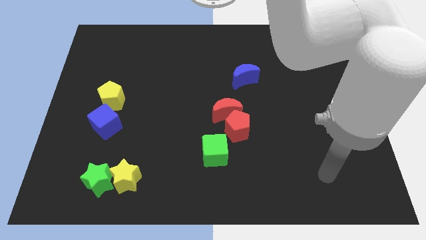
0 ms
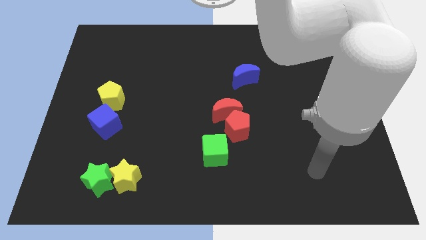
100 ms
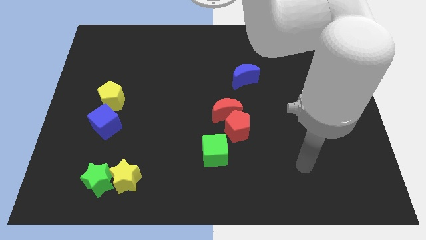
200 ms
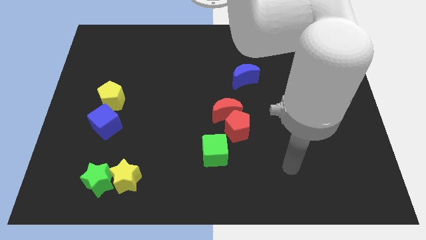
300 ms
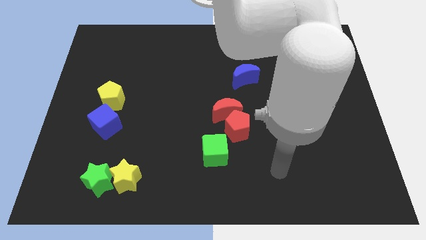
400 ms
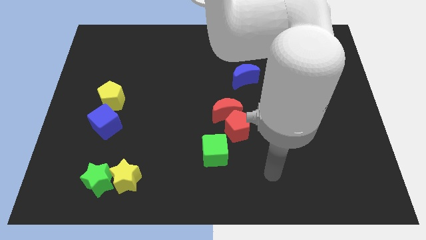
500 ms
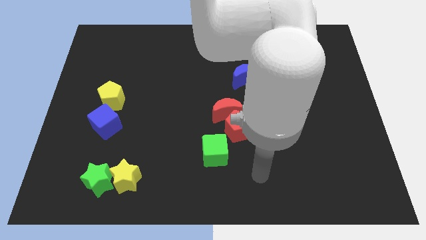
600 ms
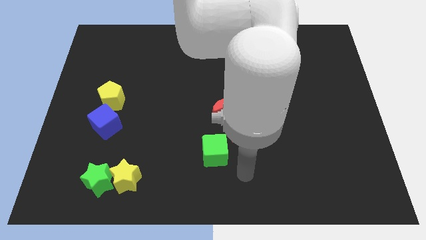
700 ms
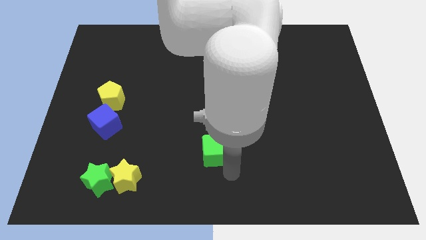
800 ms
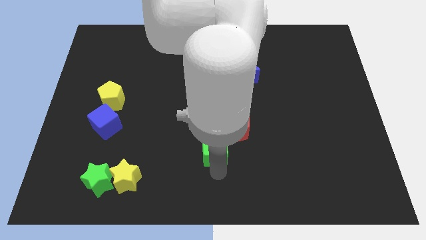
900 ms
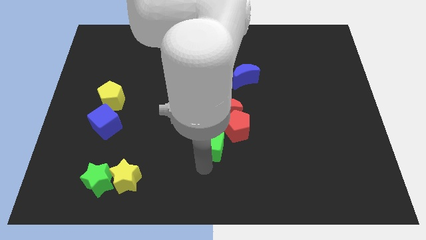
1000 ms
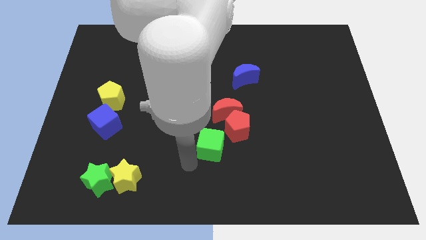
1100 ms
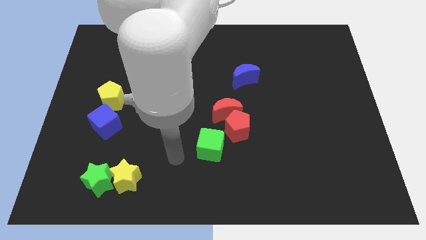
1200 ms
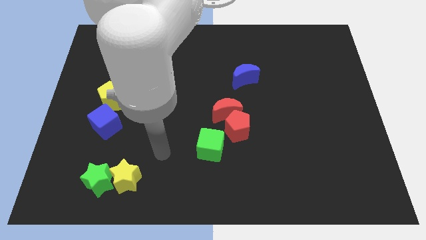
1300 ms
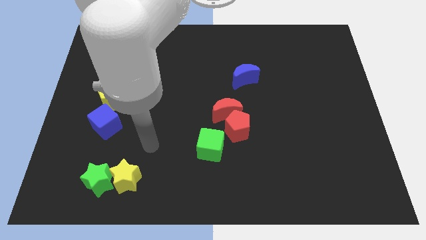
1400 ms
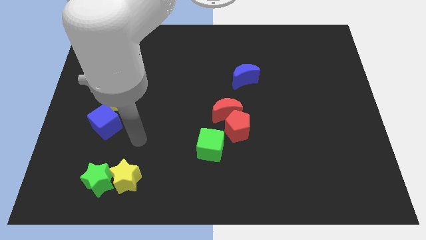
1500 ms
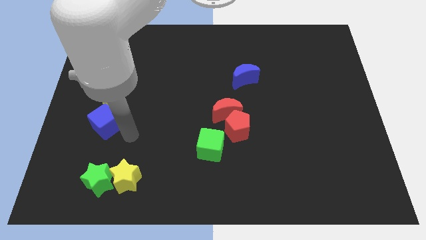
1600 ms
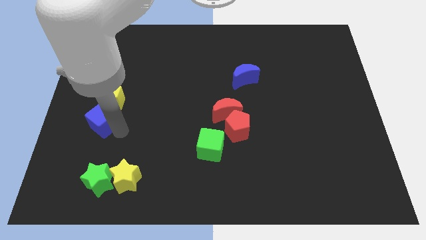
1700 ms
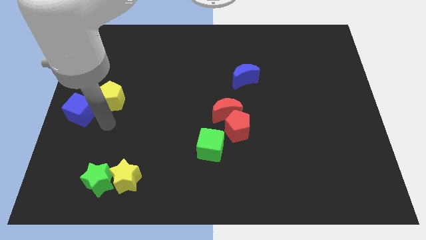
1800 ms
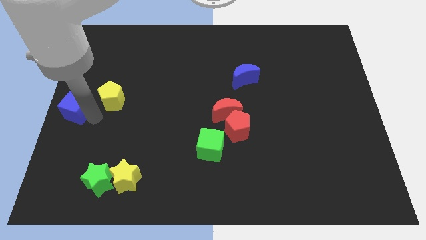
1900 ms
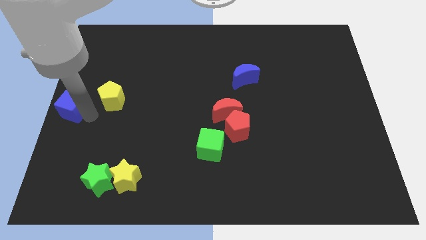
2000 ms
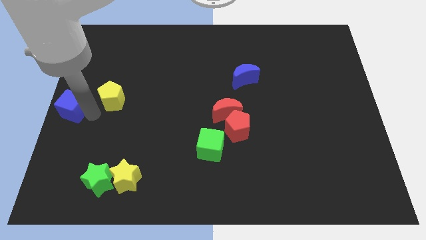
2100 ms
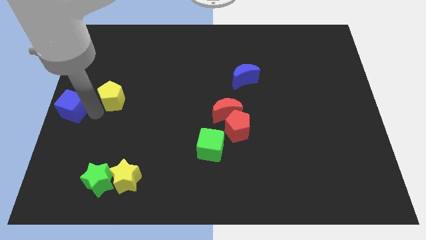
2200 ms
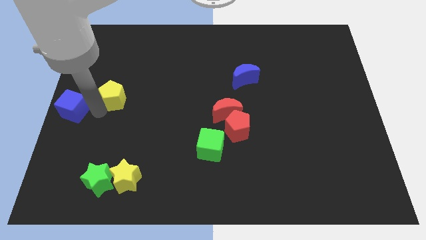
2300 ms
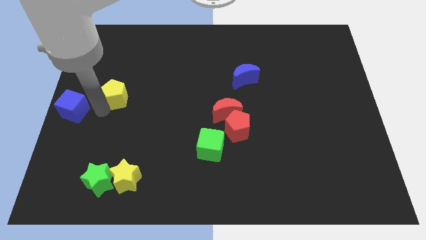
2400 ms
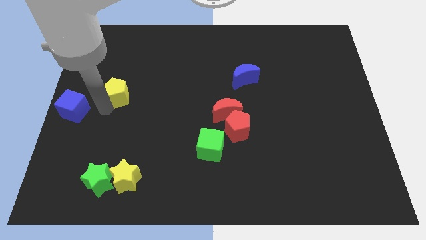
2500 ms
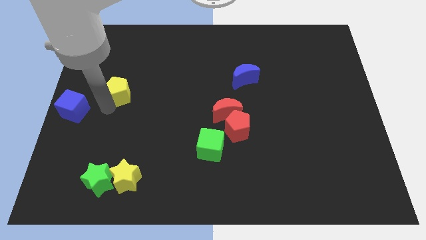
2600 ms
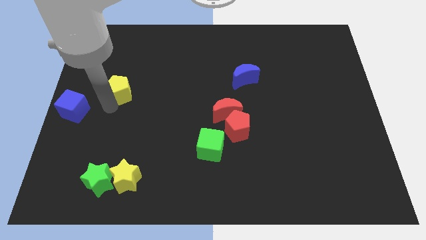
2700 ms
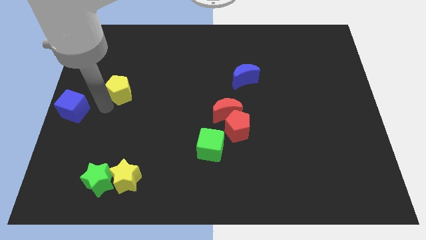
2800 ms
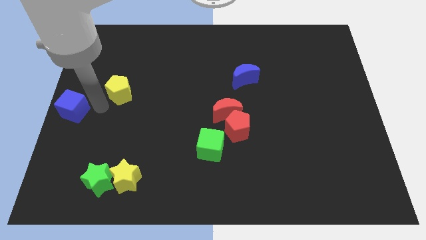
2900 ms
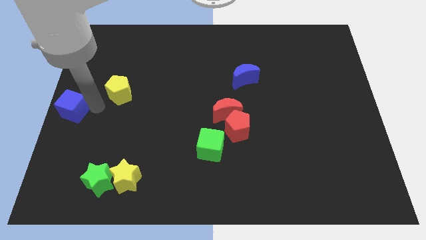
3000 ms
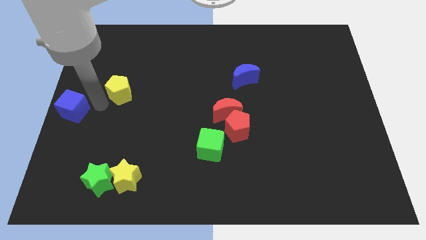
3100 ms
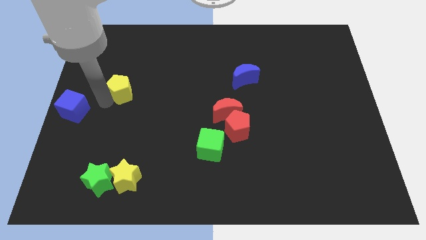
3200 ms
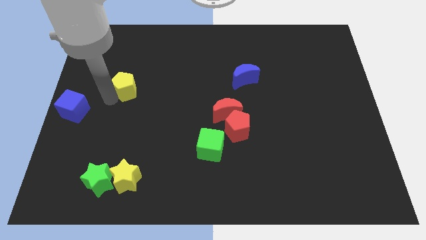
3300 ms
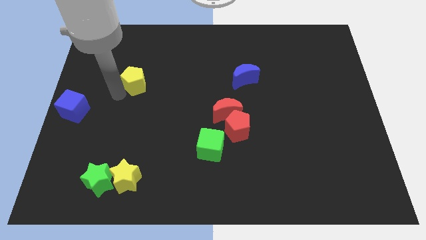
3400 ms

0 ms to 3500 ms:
slightly push the yellow pentagon upwards and then right

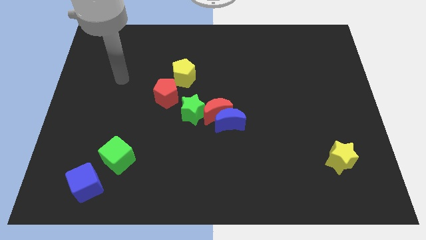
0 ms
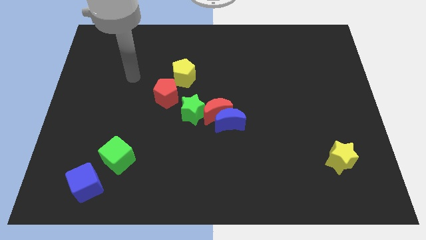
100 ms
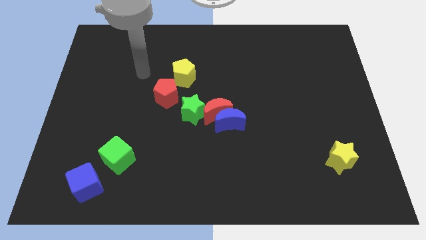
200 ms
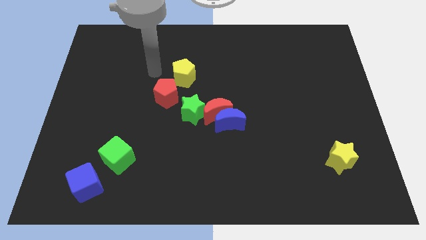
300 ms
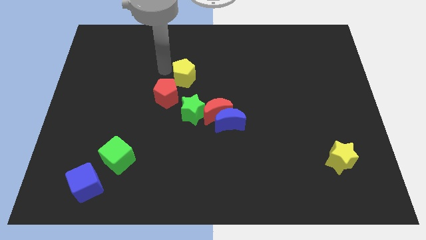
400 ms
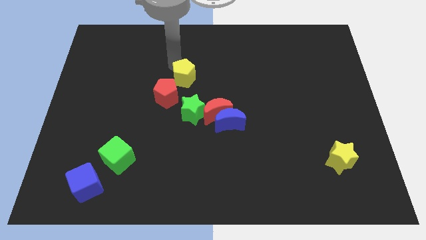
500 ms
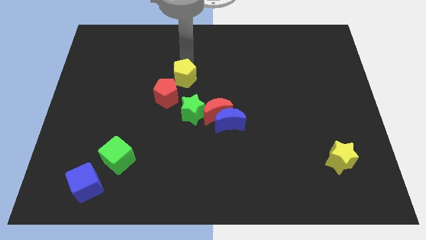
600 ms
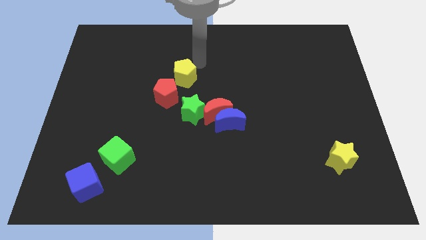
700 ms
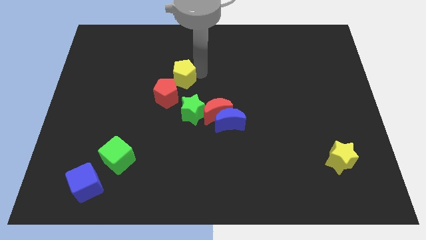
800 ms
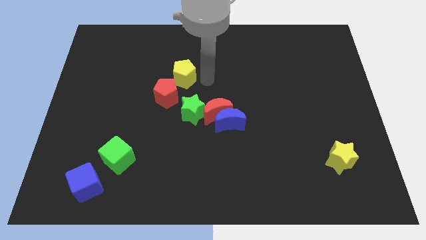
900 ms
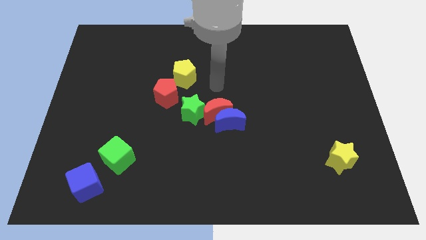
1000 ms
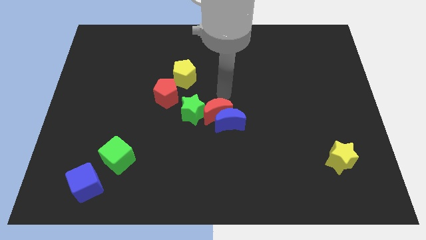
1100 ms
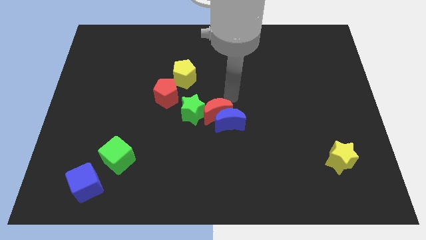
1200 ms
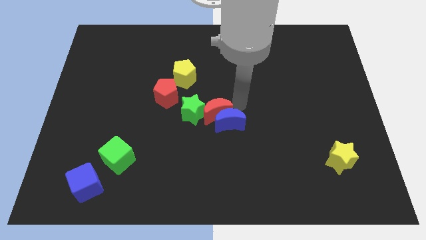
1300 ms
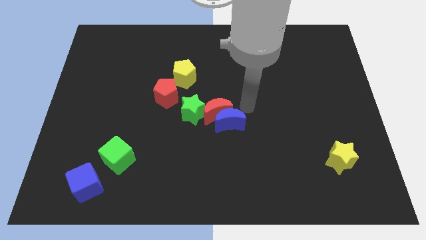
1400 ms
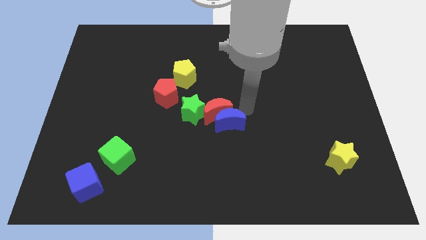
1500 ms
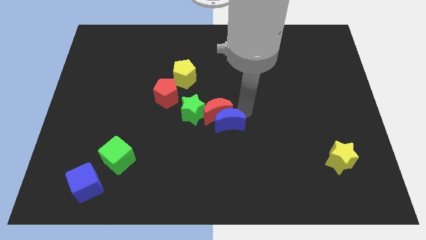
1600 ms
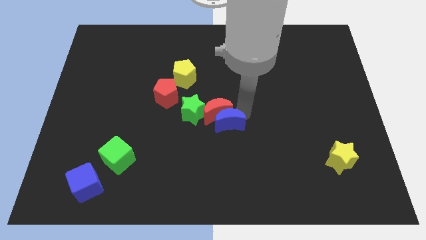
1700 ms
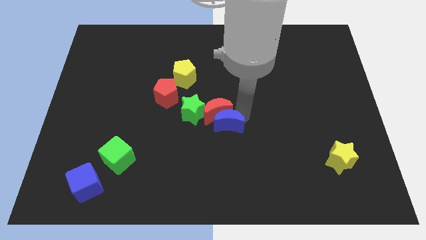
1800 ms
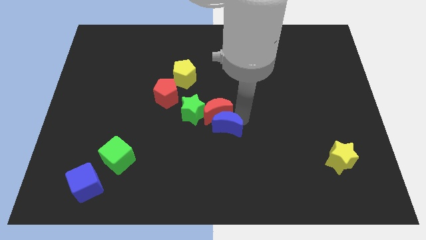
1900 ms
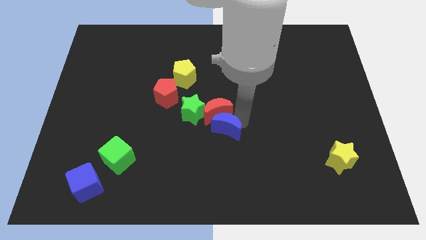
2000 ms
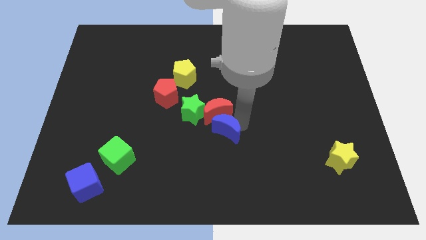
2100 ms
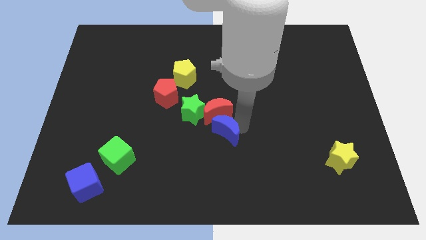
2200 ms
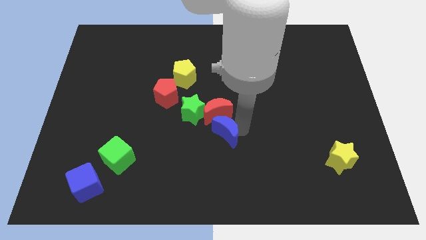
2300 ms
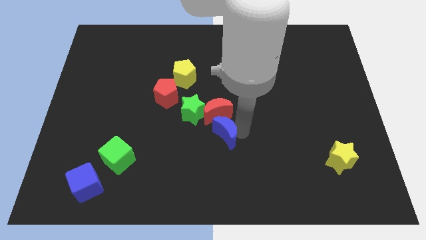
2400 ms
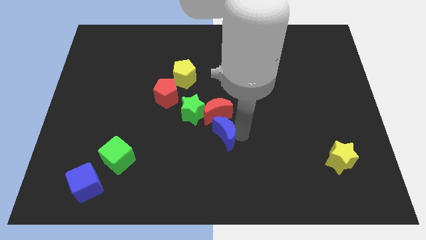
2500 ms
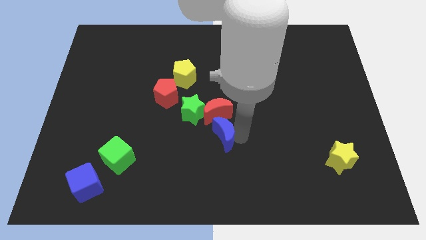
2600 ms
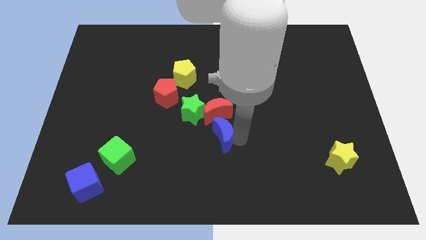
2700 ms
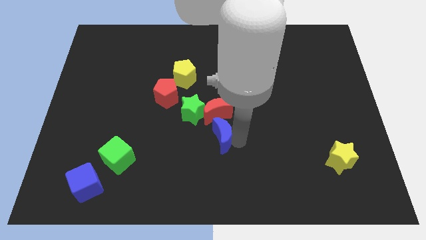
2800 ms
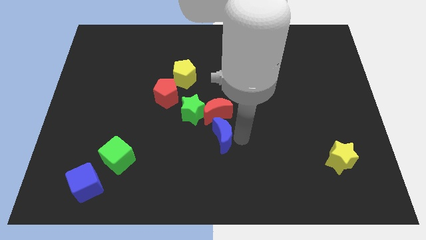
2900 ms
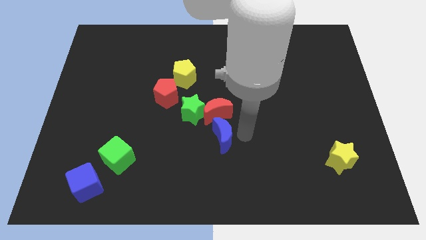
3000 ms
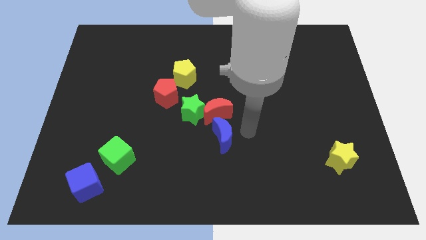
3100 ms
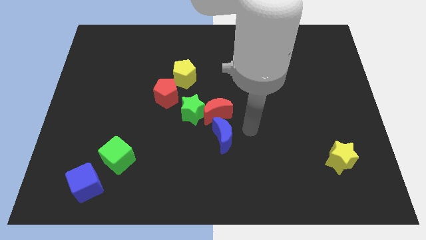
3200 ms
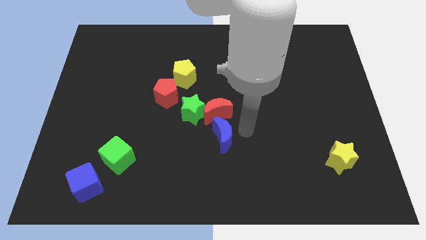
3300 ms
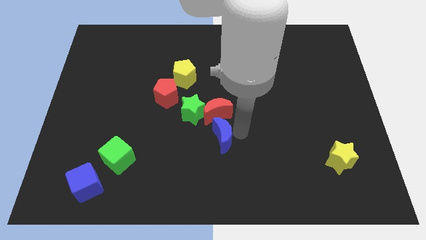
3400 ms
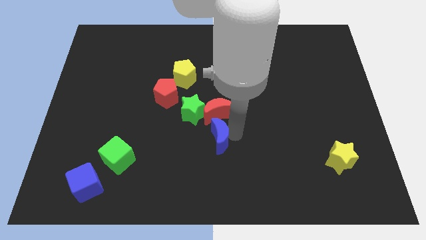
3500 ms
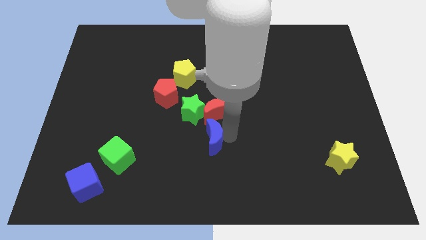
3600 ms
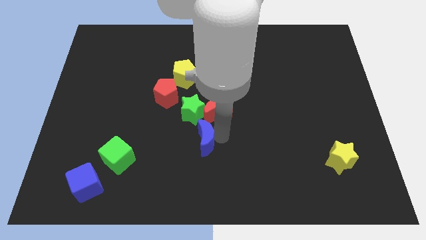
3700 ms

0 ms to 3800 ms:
slightly move the blue moon diagonally down and to the left

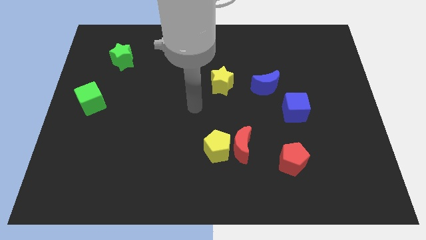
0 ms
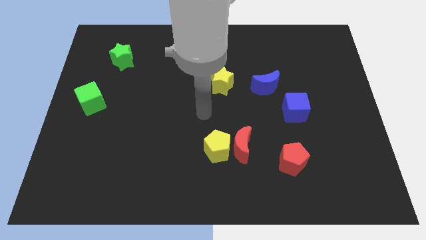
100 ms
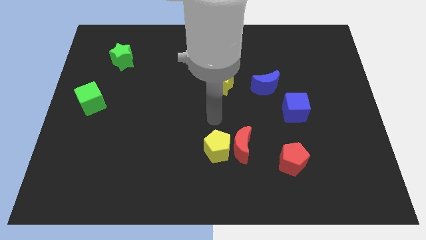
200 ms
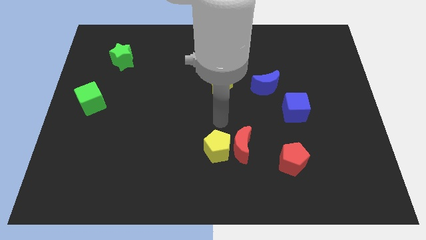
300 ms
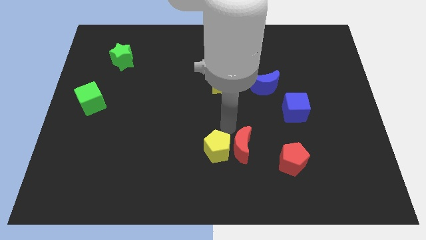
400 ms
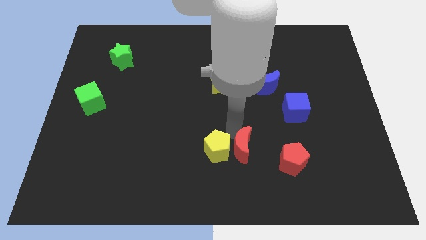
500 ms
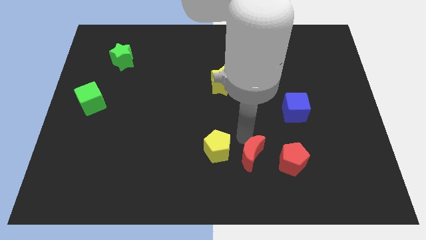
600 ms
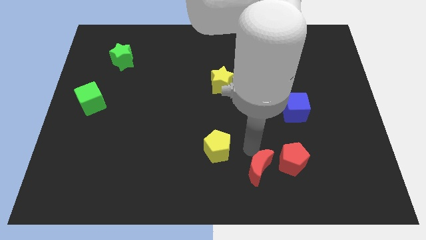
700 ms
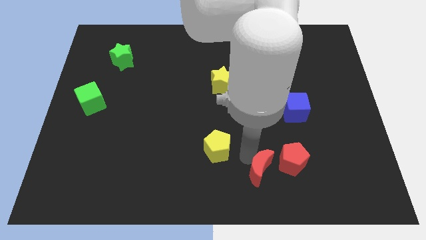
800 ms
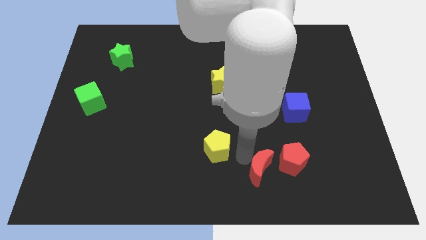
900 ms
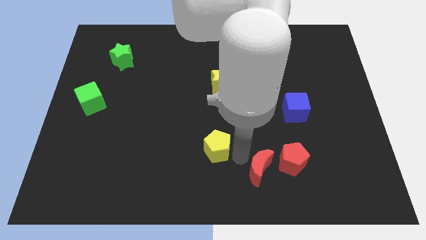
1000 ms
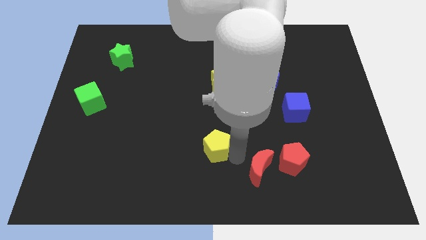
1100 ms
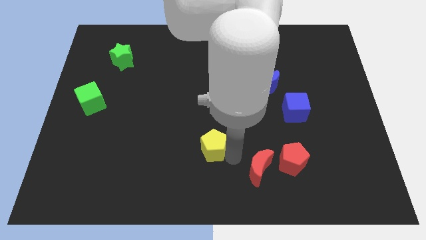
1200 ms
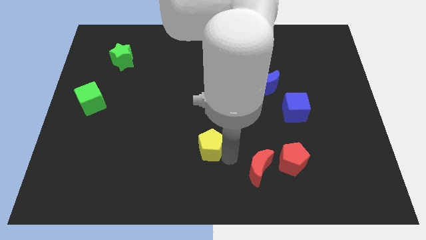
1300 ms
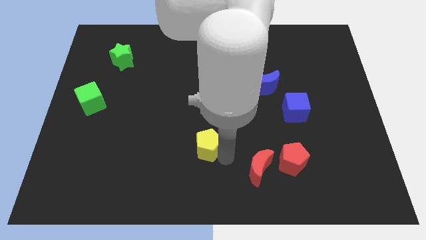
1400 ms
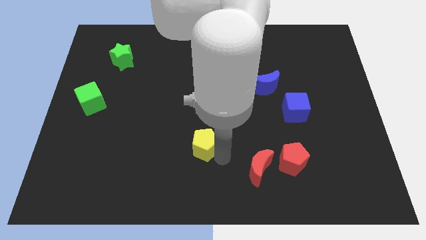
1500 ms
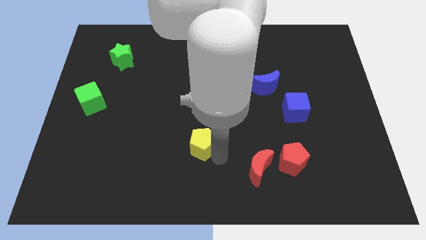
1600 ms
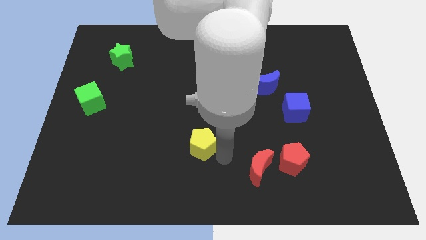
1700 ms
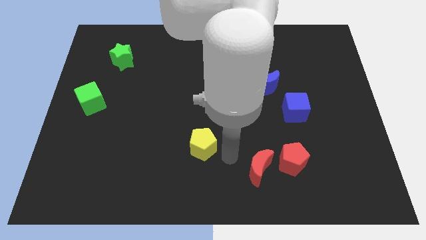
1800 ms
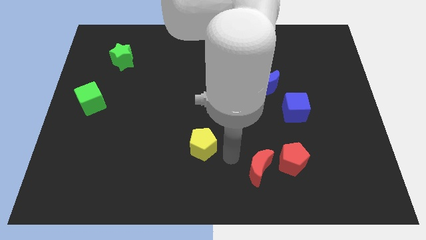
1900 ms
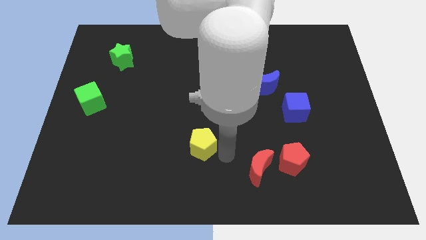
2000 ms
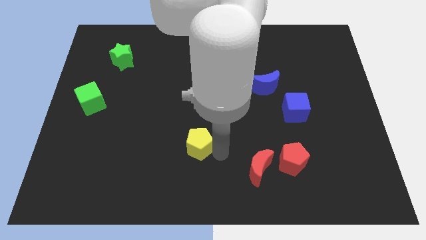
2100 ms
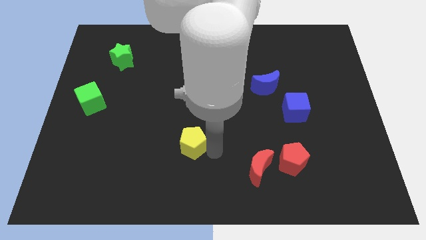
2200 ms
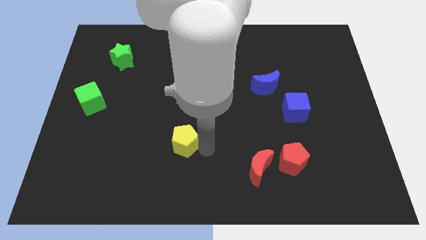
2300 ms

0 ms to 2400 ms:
slightly slide the yellow pentagon left
